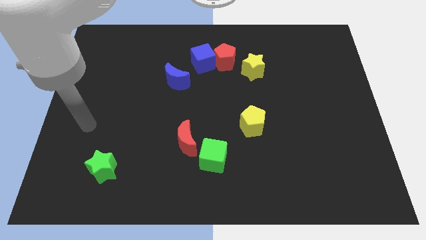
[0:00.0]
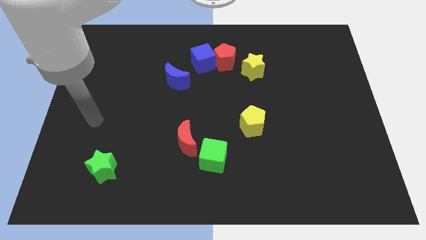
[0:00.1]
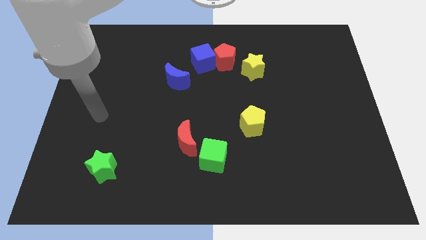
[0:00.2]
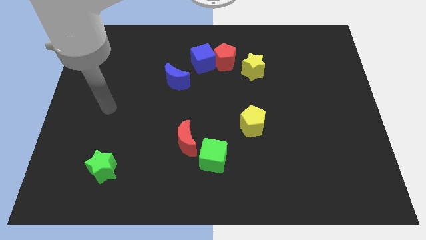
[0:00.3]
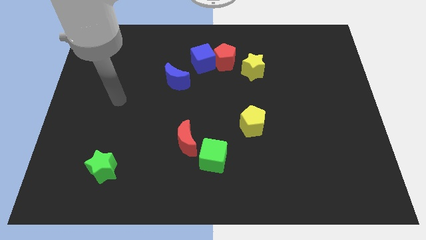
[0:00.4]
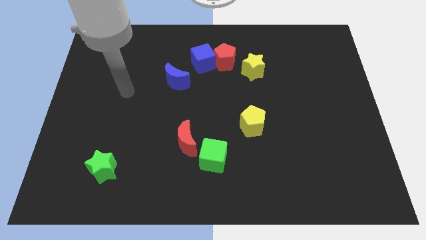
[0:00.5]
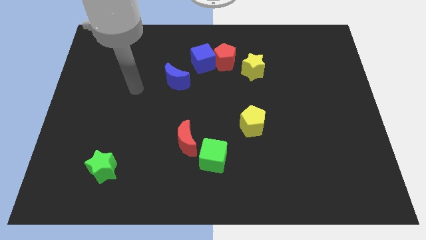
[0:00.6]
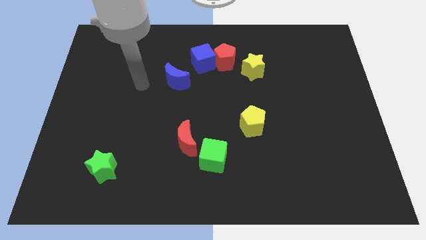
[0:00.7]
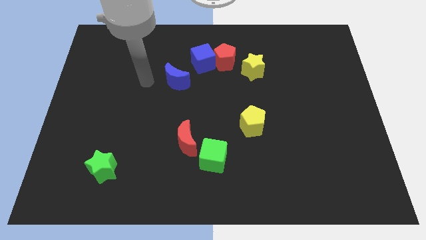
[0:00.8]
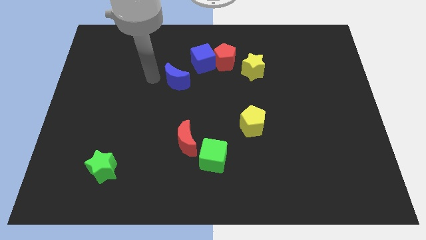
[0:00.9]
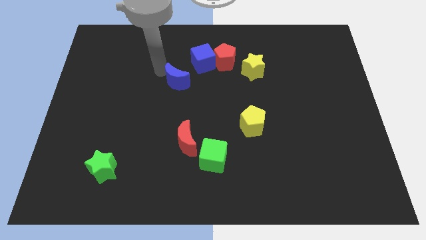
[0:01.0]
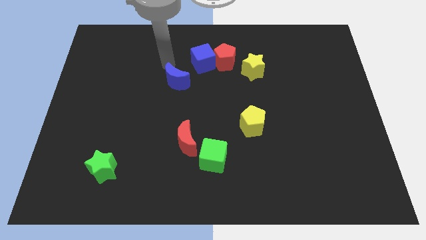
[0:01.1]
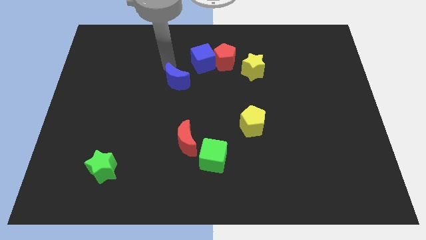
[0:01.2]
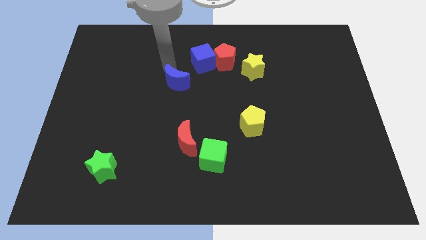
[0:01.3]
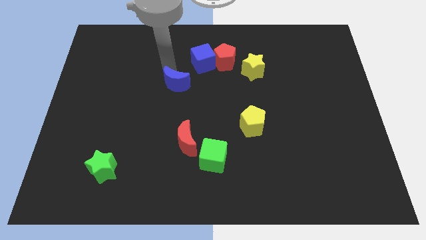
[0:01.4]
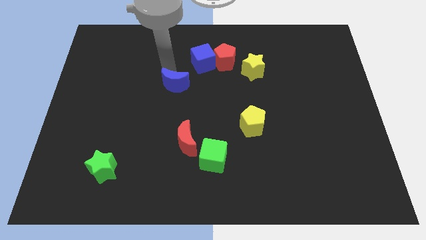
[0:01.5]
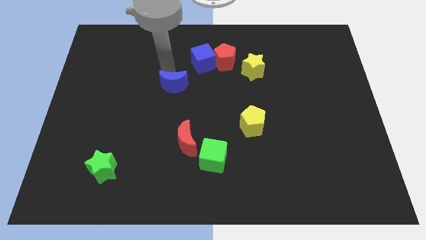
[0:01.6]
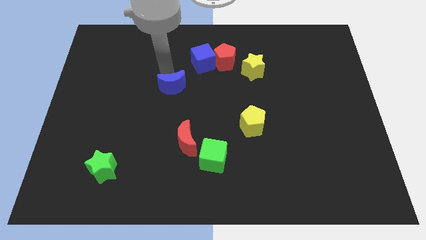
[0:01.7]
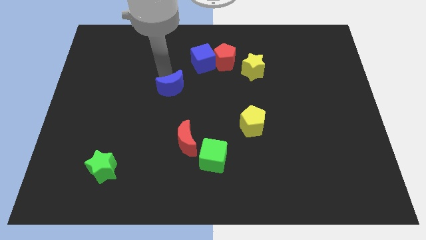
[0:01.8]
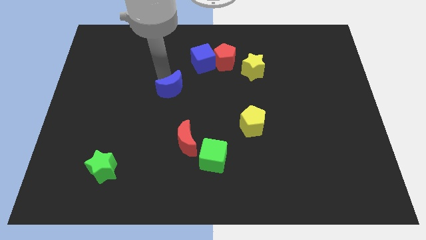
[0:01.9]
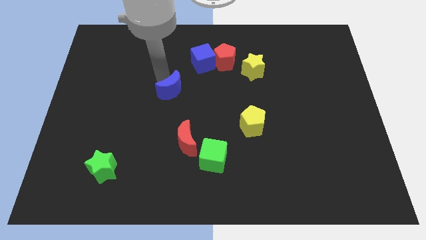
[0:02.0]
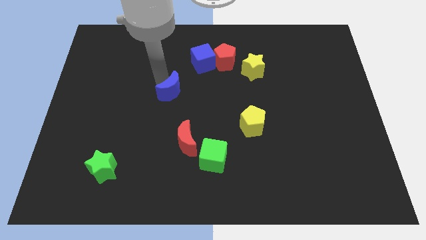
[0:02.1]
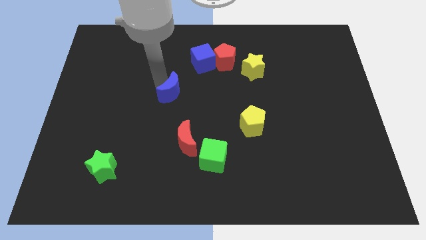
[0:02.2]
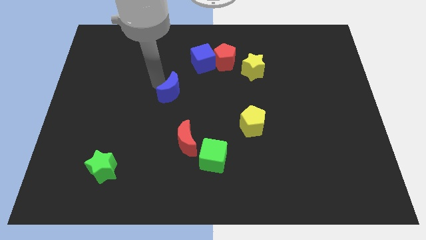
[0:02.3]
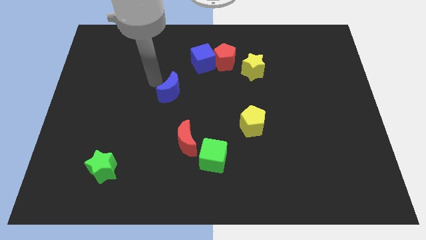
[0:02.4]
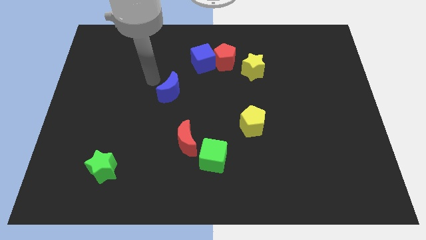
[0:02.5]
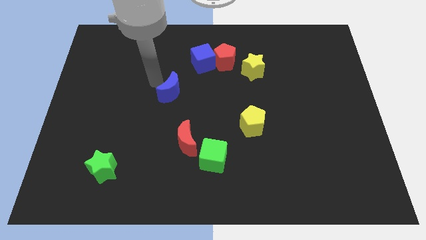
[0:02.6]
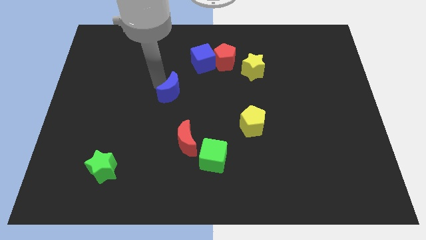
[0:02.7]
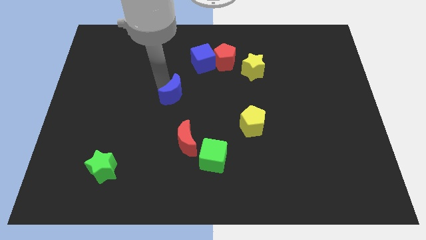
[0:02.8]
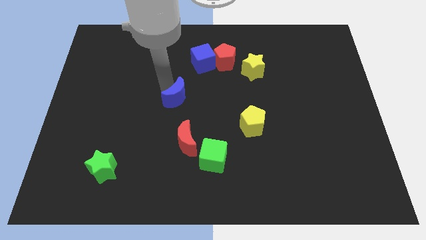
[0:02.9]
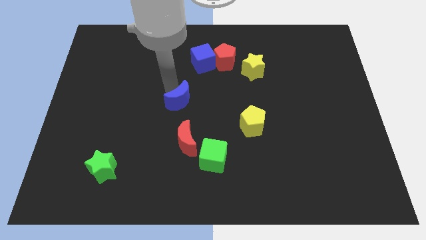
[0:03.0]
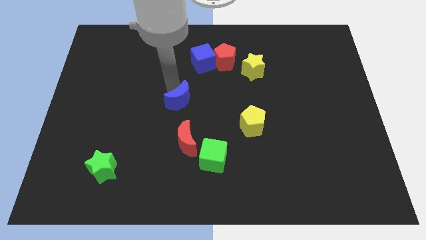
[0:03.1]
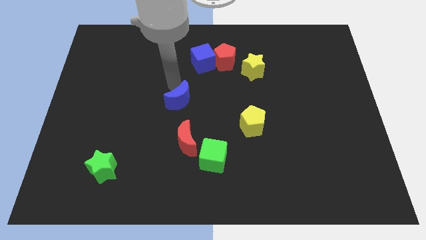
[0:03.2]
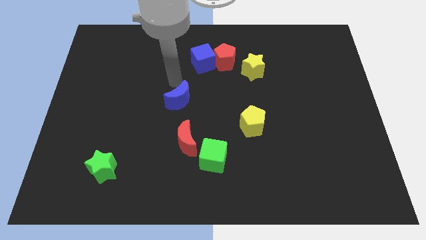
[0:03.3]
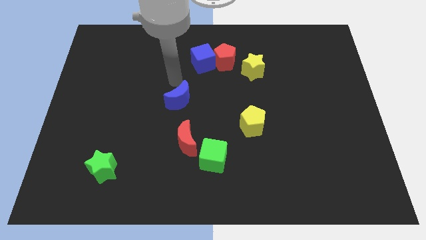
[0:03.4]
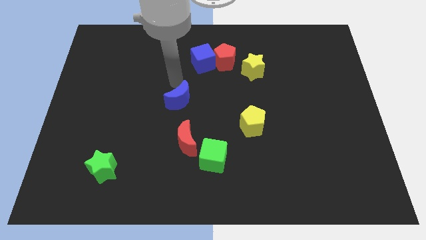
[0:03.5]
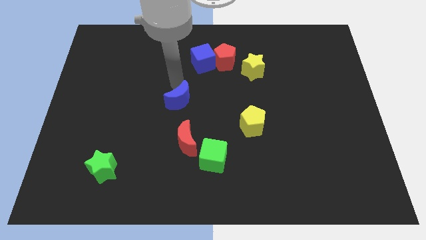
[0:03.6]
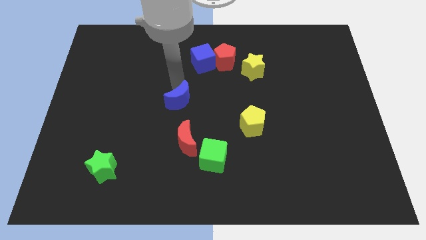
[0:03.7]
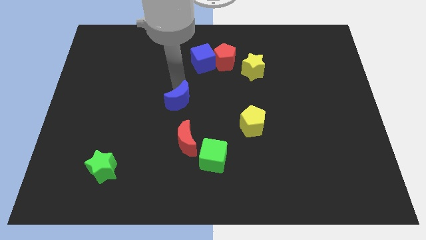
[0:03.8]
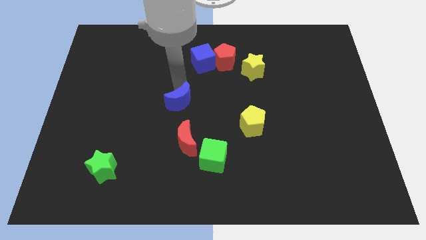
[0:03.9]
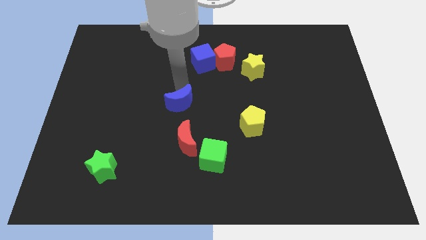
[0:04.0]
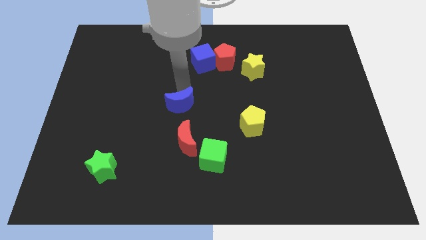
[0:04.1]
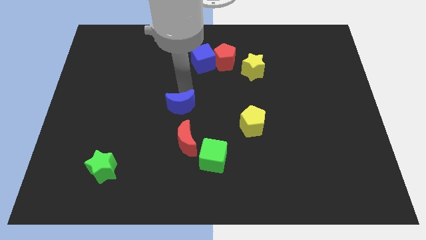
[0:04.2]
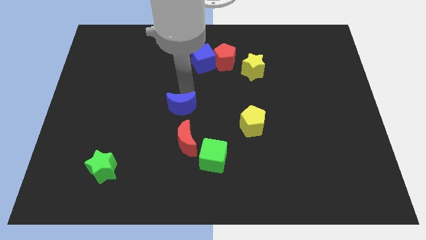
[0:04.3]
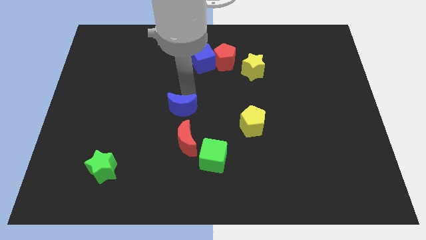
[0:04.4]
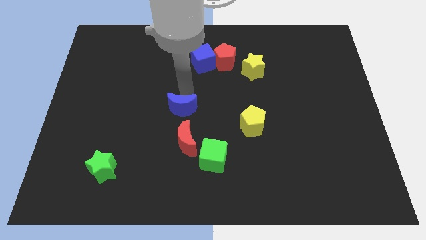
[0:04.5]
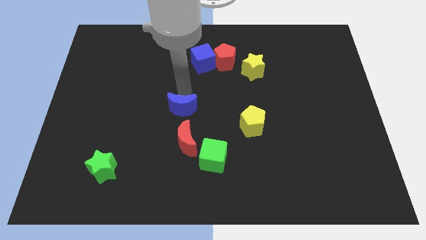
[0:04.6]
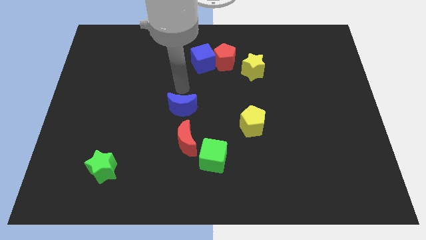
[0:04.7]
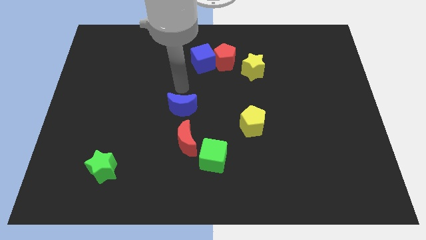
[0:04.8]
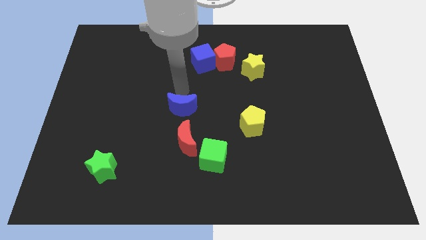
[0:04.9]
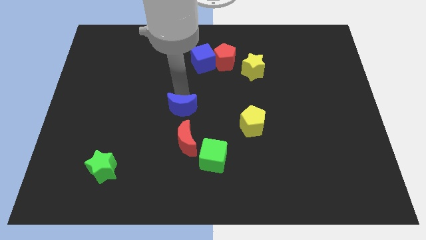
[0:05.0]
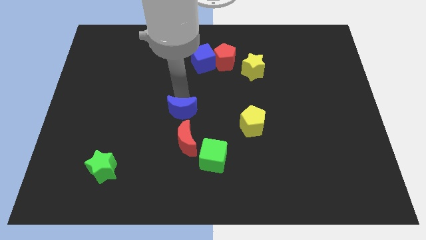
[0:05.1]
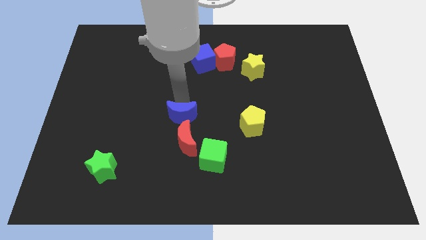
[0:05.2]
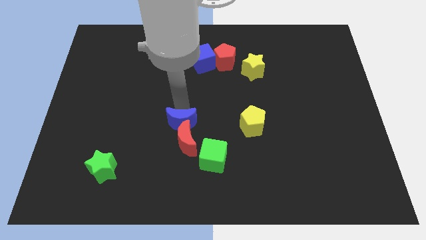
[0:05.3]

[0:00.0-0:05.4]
move the blue moon to the red moon

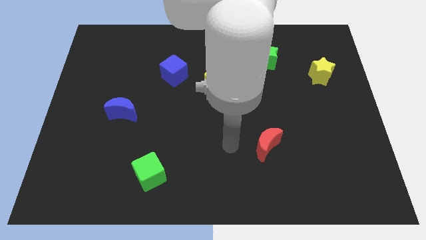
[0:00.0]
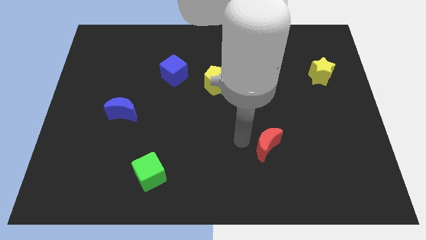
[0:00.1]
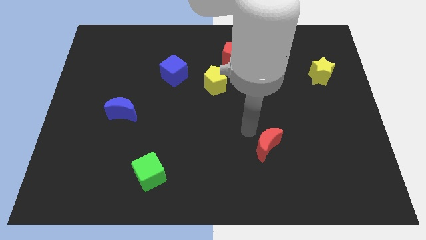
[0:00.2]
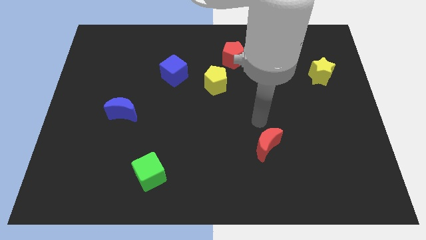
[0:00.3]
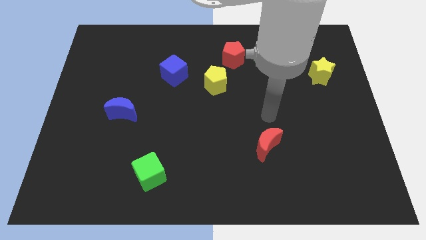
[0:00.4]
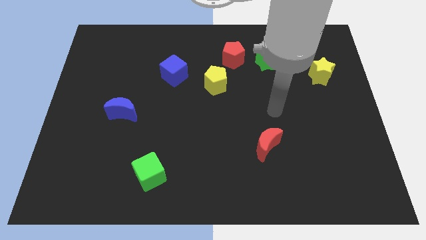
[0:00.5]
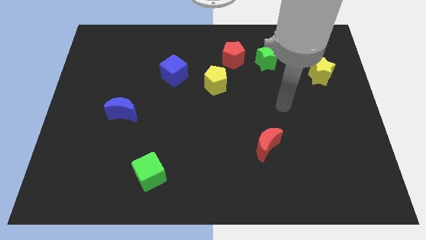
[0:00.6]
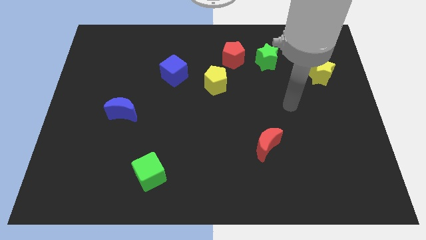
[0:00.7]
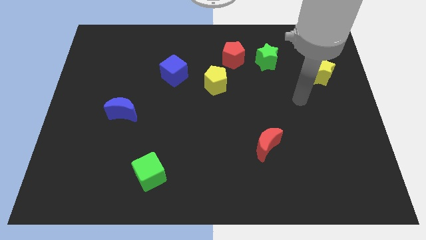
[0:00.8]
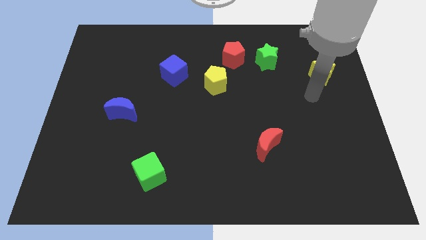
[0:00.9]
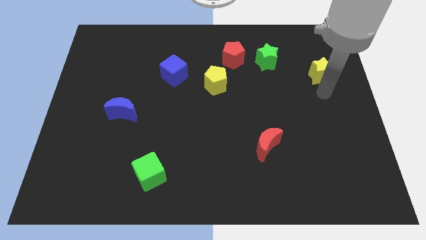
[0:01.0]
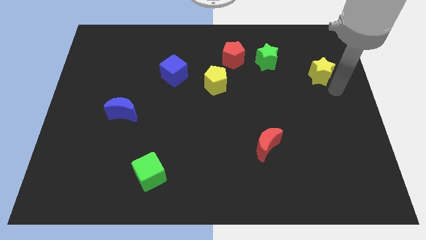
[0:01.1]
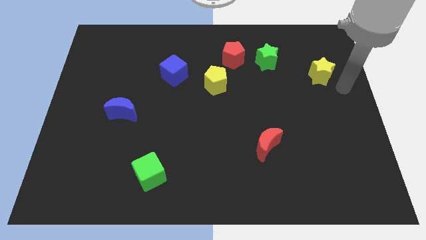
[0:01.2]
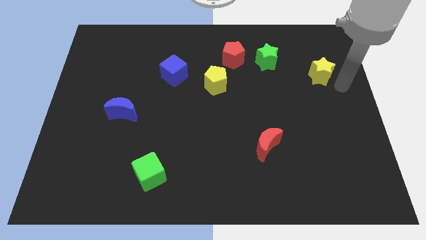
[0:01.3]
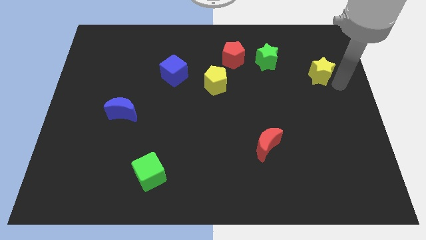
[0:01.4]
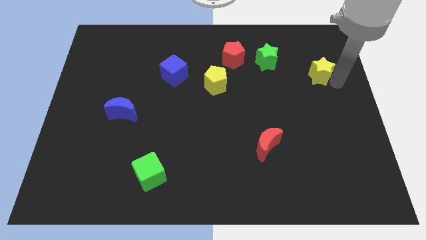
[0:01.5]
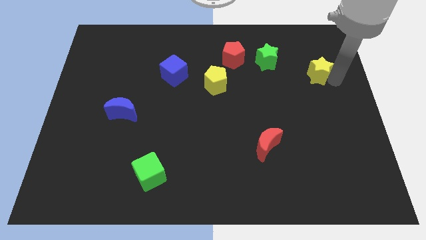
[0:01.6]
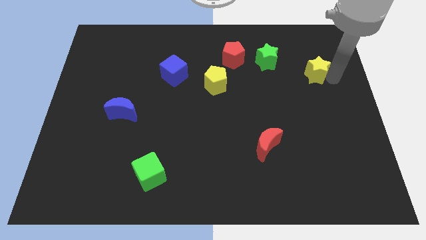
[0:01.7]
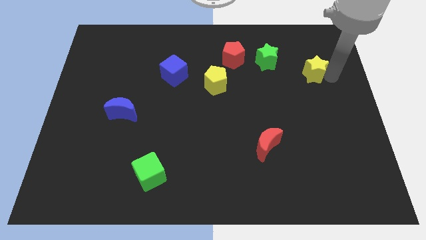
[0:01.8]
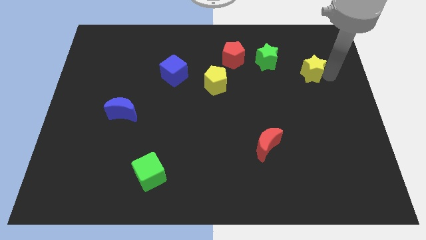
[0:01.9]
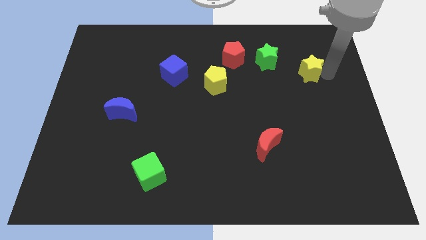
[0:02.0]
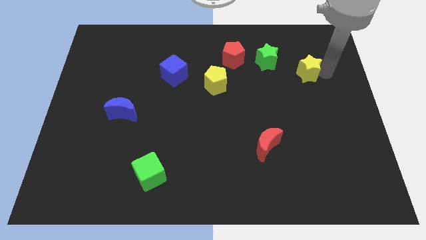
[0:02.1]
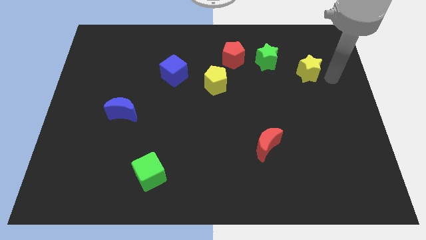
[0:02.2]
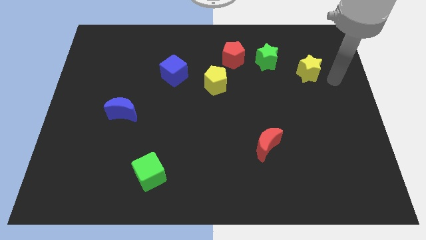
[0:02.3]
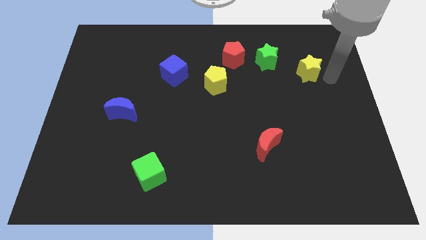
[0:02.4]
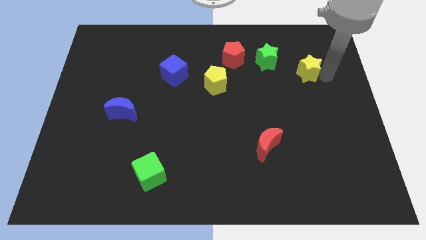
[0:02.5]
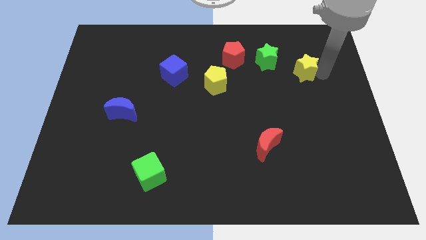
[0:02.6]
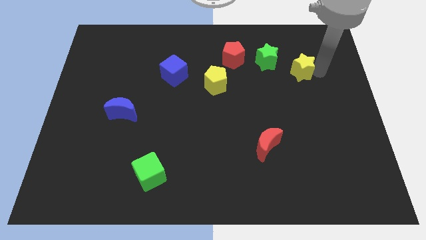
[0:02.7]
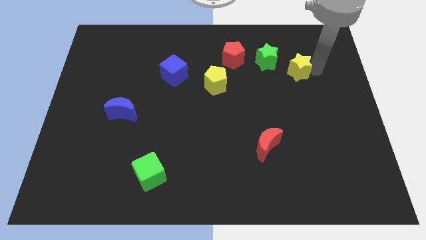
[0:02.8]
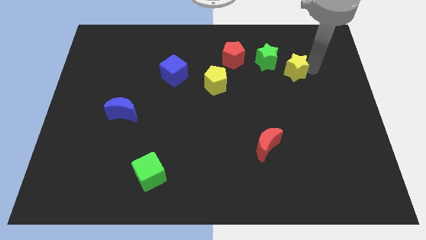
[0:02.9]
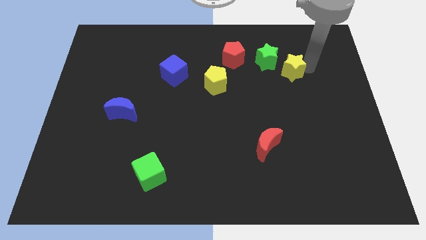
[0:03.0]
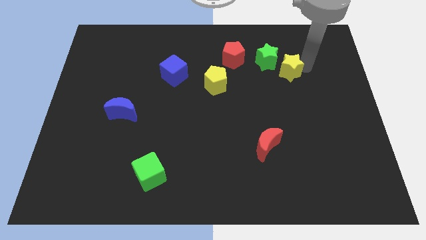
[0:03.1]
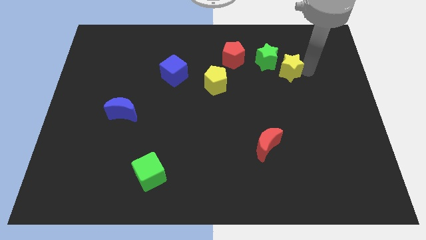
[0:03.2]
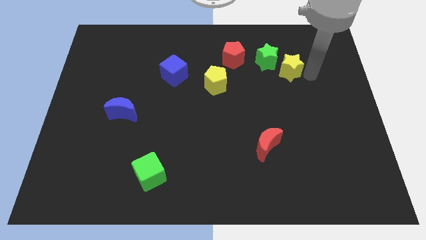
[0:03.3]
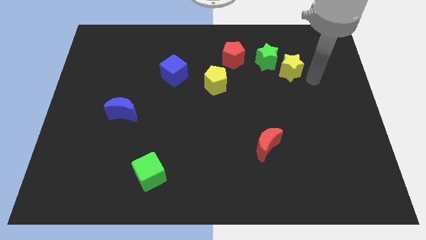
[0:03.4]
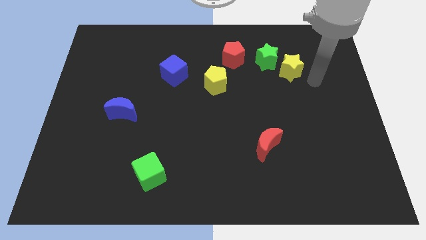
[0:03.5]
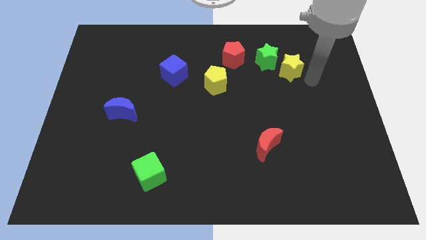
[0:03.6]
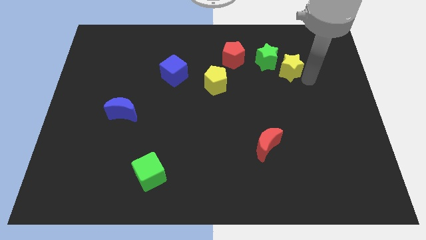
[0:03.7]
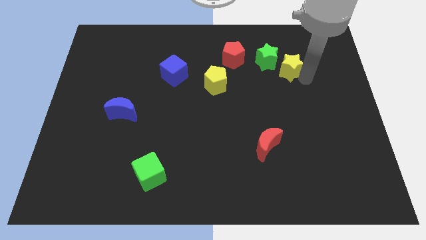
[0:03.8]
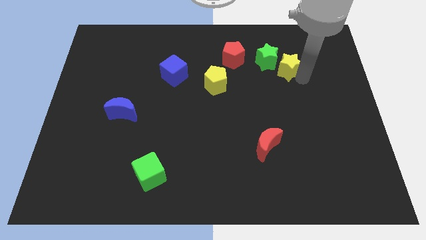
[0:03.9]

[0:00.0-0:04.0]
push the yellow star close to the green star
